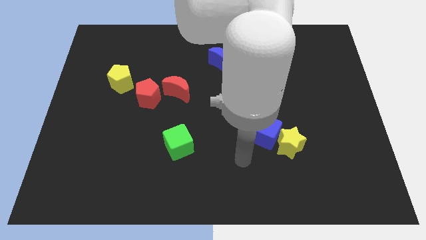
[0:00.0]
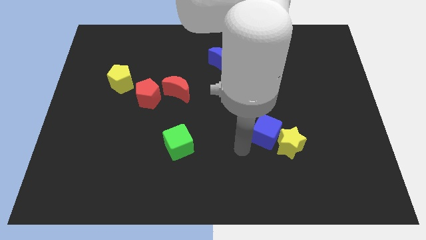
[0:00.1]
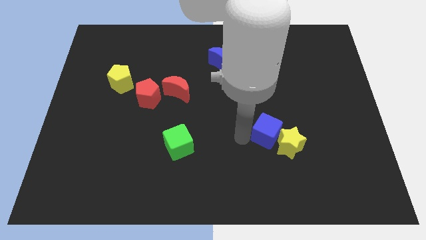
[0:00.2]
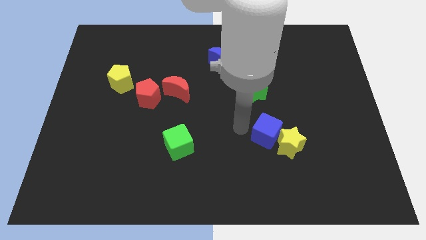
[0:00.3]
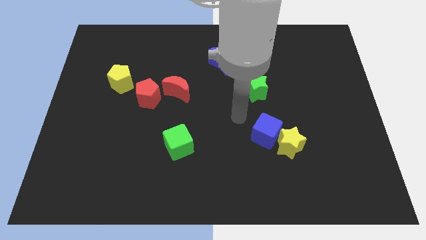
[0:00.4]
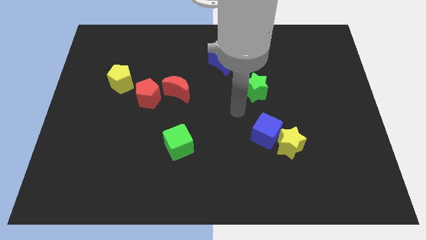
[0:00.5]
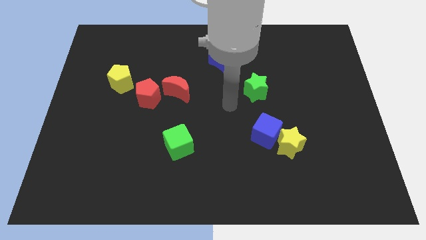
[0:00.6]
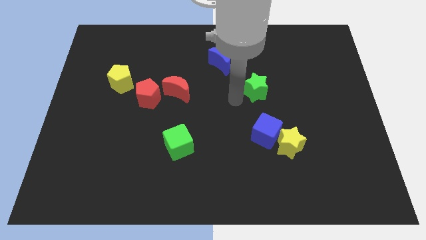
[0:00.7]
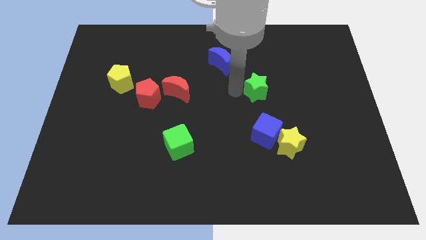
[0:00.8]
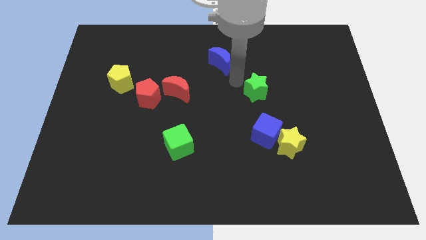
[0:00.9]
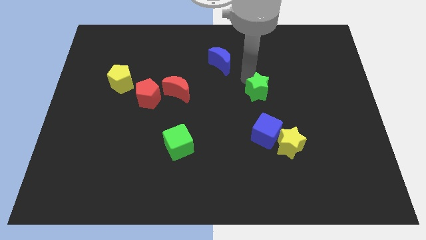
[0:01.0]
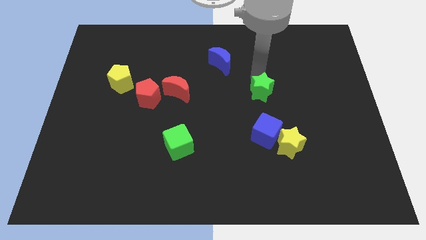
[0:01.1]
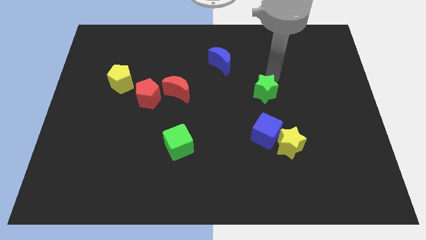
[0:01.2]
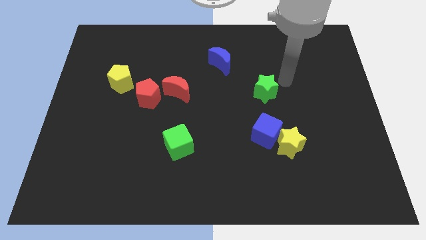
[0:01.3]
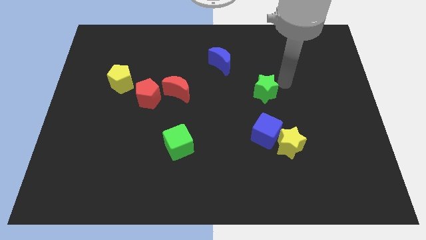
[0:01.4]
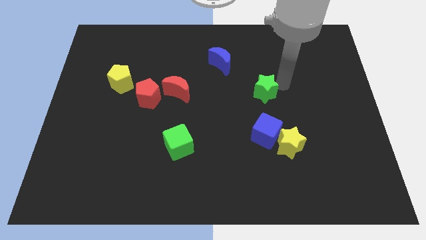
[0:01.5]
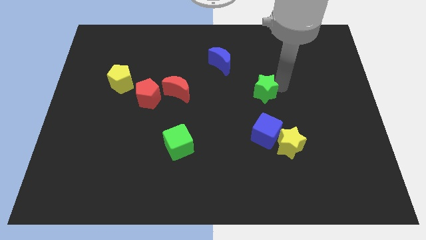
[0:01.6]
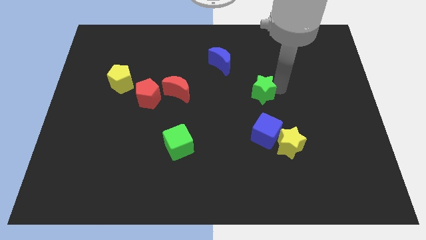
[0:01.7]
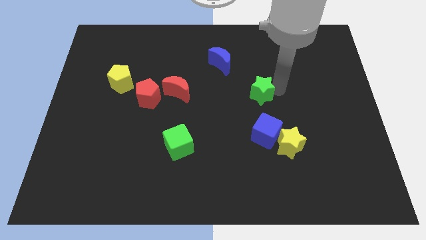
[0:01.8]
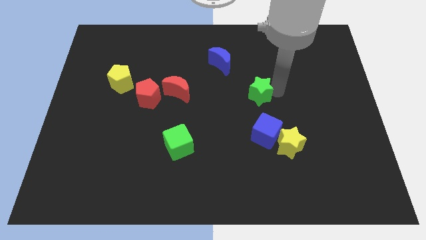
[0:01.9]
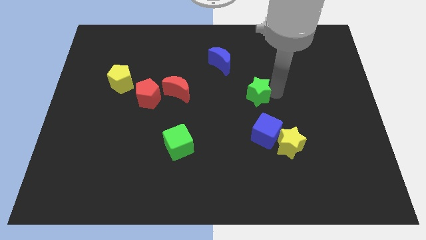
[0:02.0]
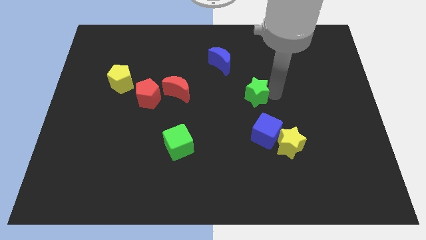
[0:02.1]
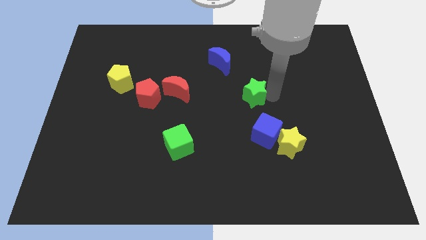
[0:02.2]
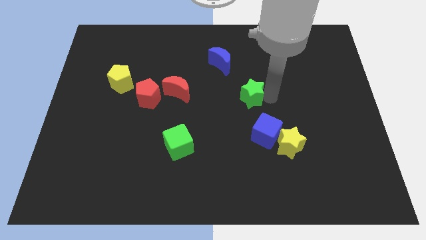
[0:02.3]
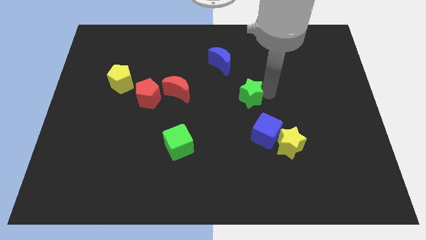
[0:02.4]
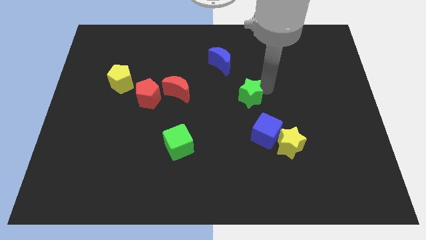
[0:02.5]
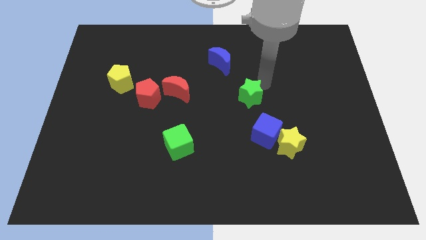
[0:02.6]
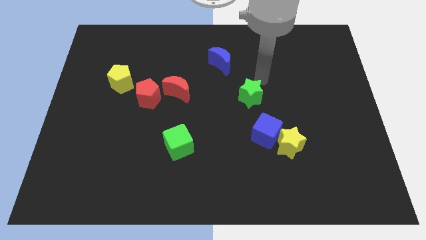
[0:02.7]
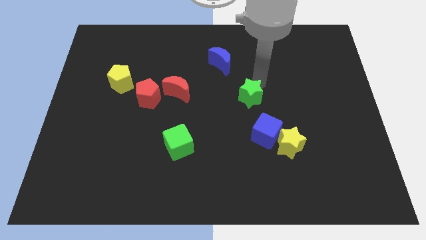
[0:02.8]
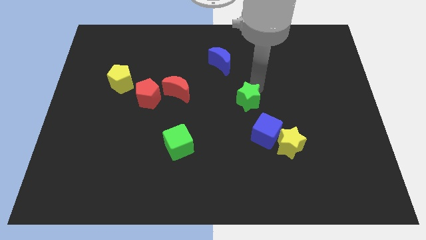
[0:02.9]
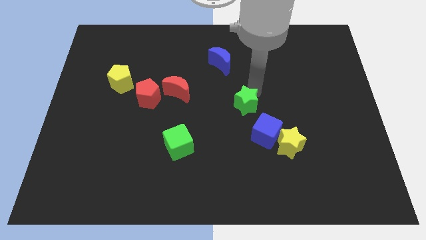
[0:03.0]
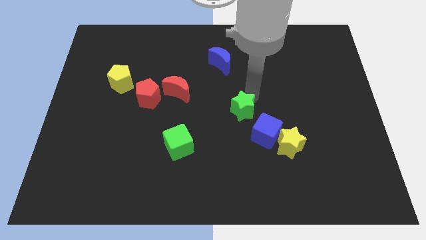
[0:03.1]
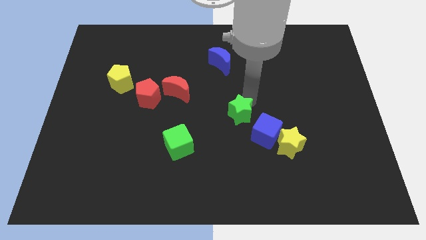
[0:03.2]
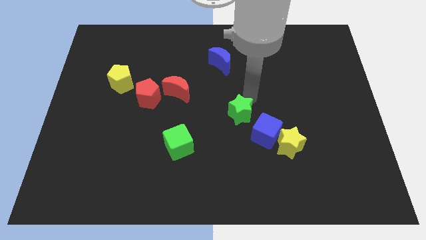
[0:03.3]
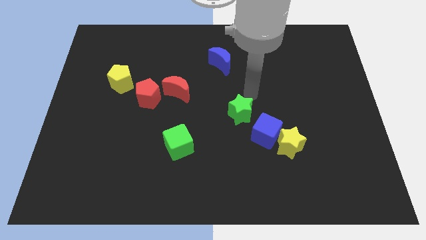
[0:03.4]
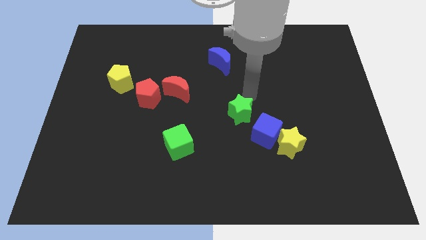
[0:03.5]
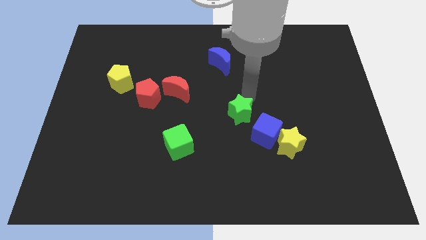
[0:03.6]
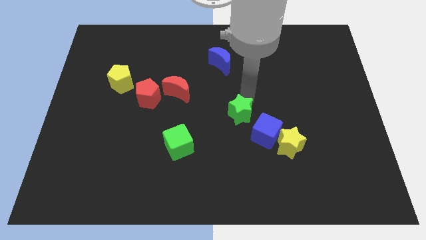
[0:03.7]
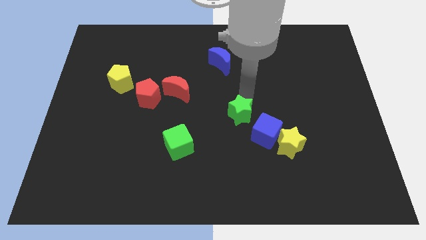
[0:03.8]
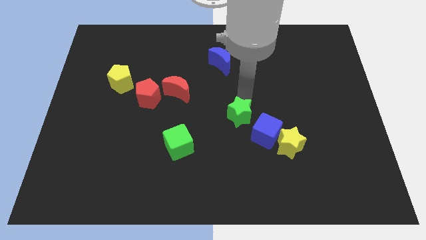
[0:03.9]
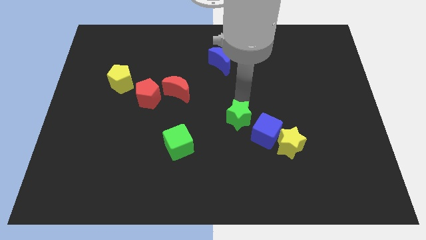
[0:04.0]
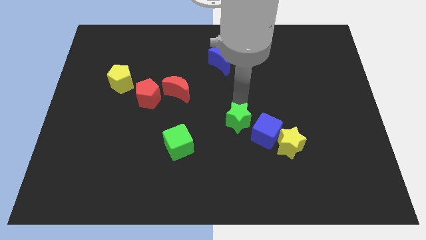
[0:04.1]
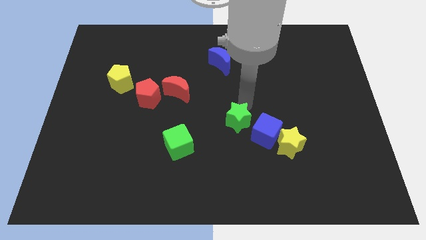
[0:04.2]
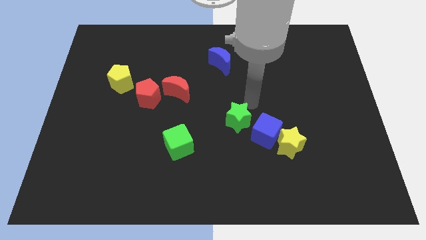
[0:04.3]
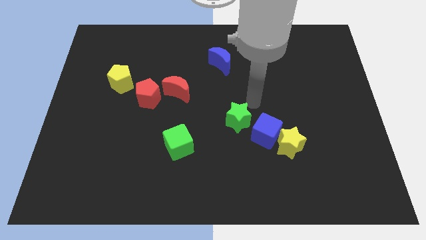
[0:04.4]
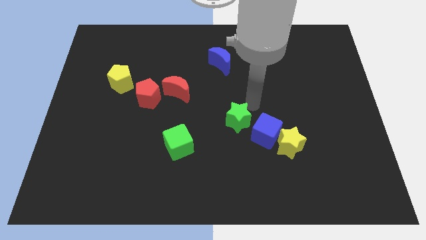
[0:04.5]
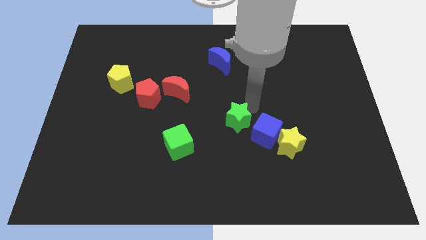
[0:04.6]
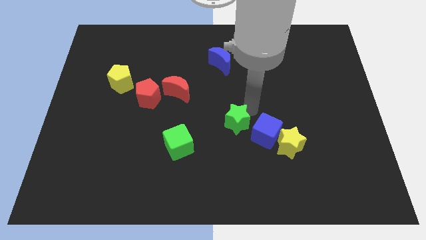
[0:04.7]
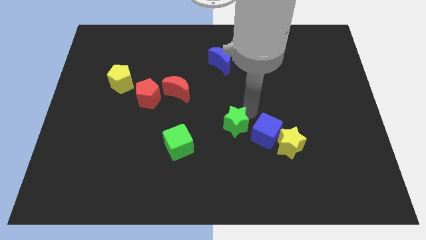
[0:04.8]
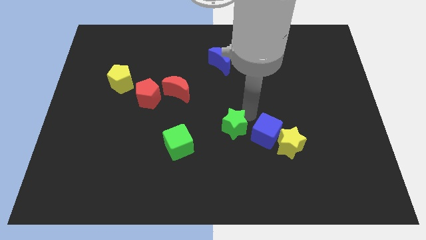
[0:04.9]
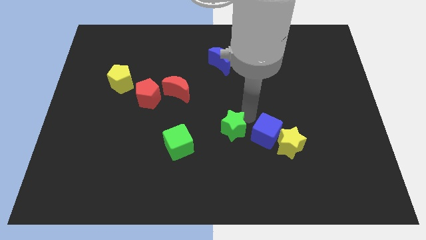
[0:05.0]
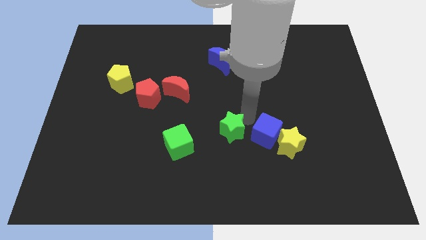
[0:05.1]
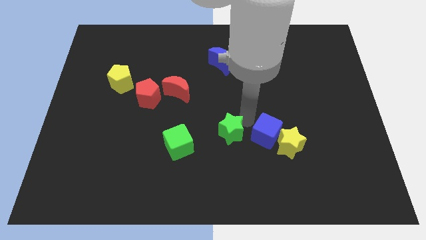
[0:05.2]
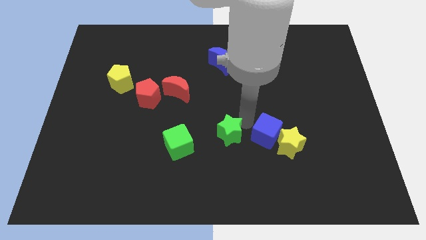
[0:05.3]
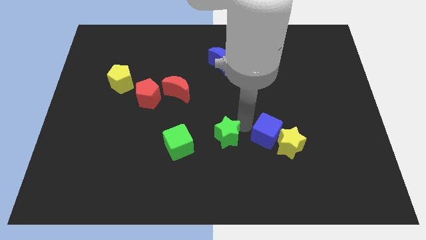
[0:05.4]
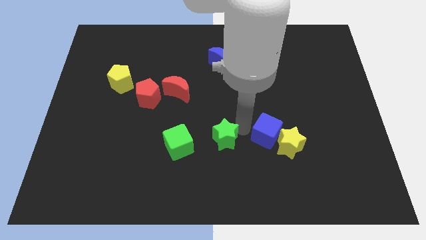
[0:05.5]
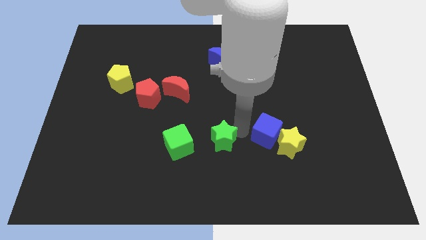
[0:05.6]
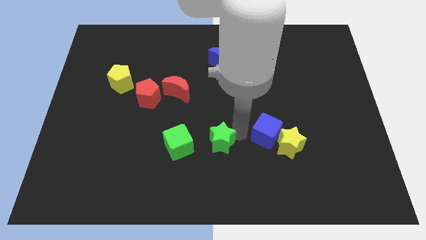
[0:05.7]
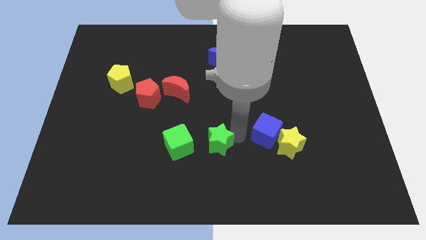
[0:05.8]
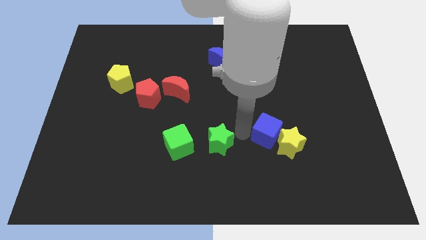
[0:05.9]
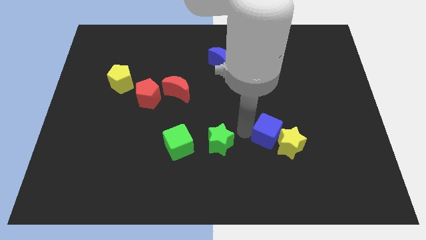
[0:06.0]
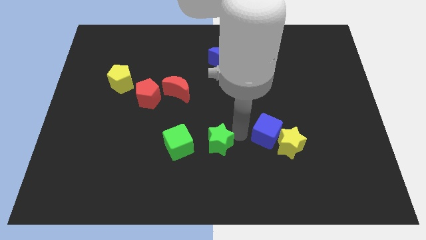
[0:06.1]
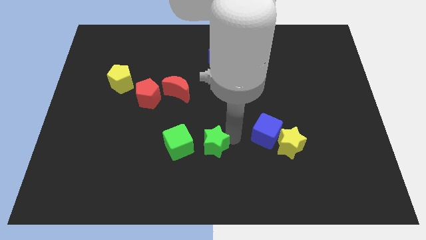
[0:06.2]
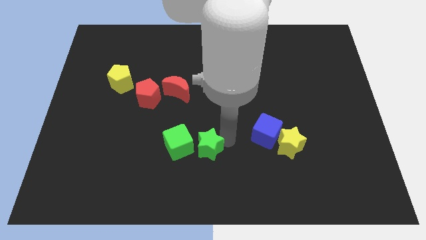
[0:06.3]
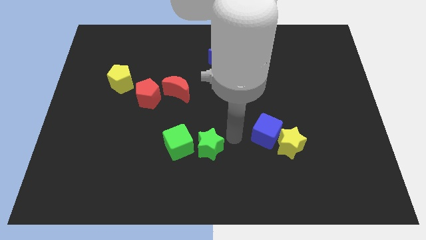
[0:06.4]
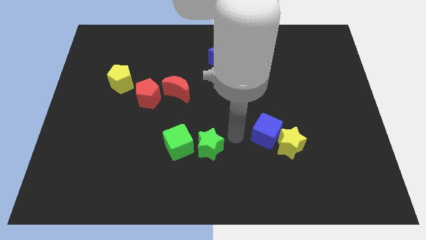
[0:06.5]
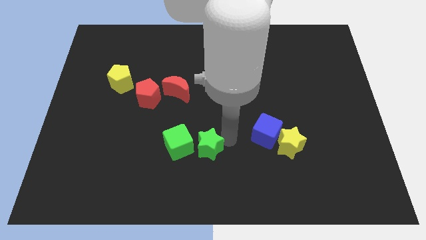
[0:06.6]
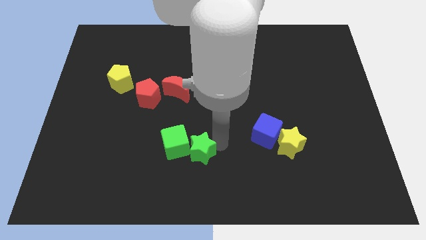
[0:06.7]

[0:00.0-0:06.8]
push the green star down and left

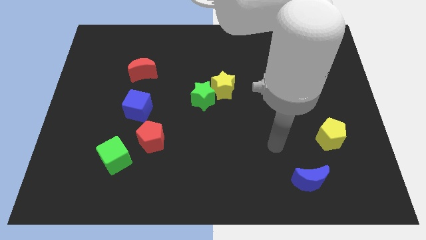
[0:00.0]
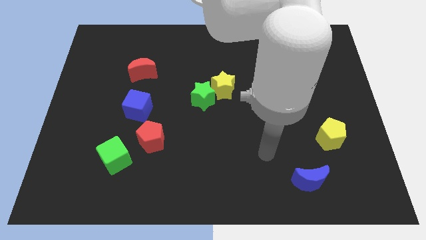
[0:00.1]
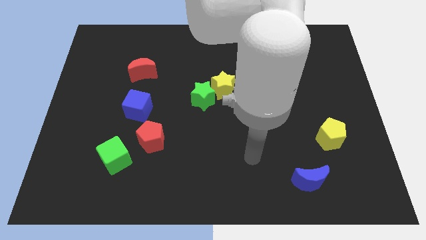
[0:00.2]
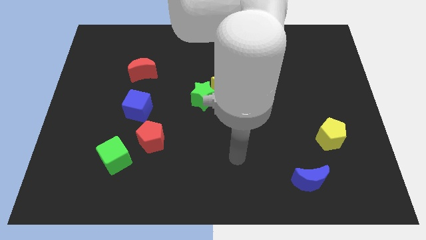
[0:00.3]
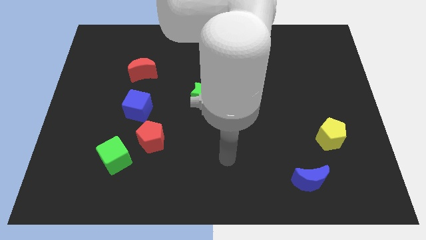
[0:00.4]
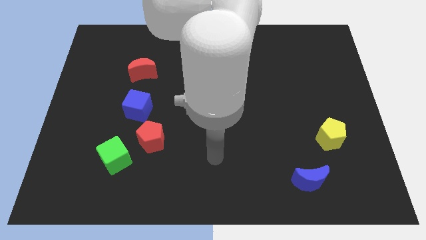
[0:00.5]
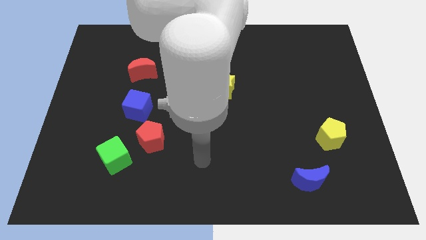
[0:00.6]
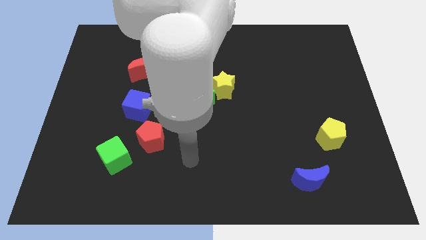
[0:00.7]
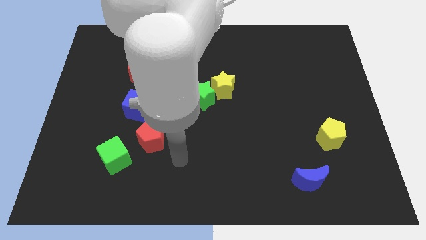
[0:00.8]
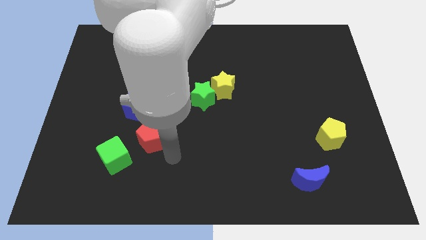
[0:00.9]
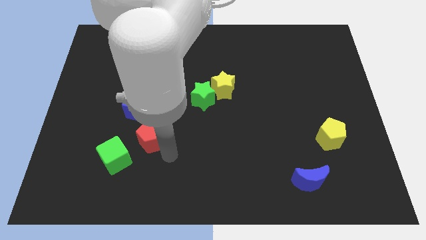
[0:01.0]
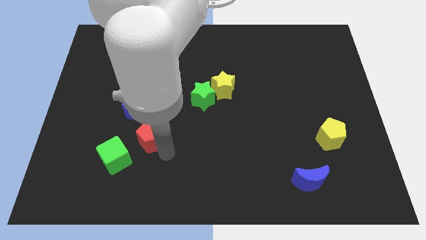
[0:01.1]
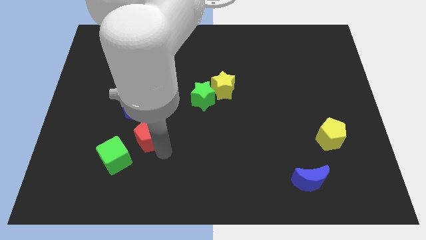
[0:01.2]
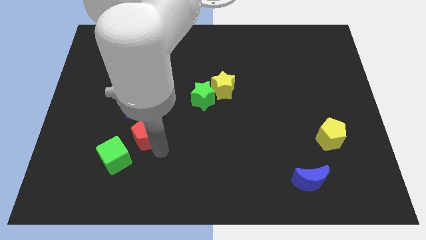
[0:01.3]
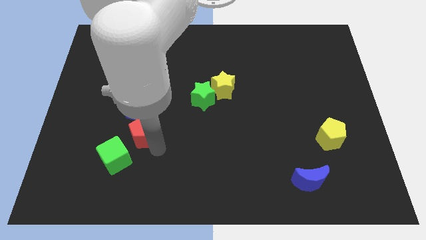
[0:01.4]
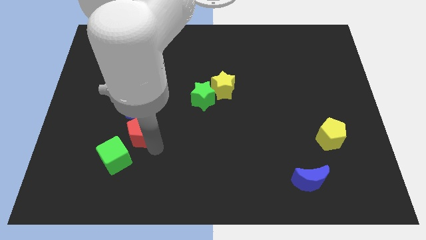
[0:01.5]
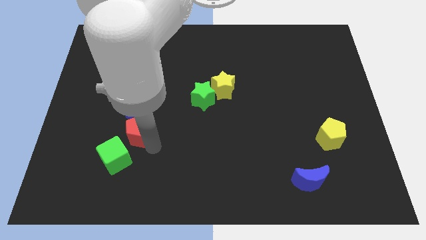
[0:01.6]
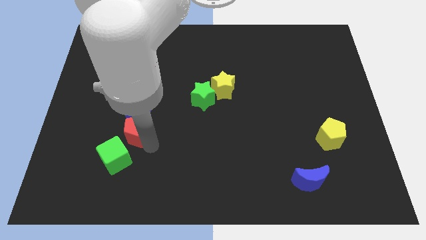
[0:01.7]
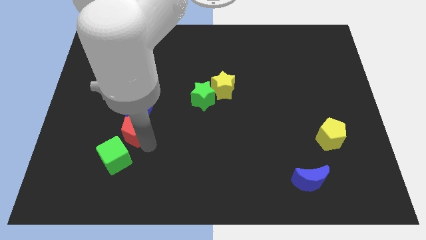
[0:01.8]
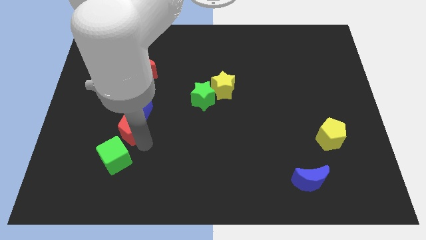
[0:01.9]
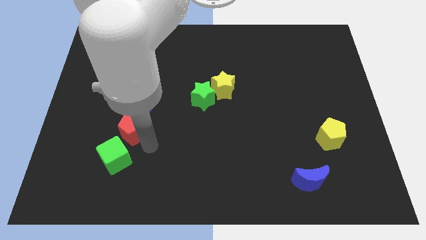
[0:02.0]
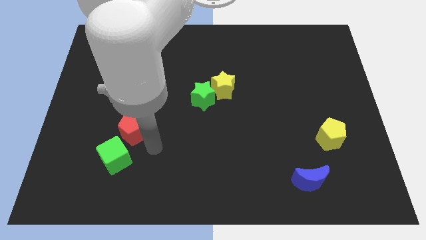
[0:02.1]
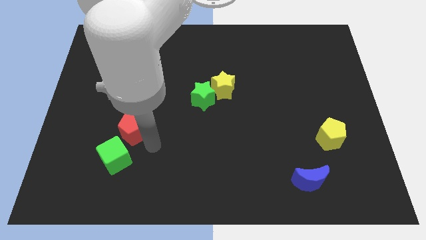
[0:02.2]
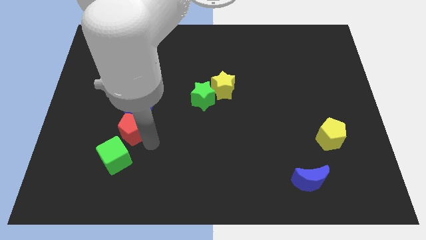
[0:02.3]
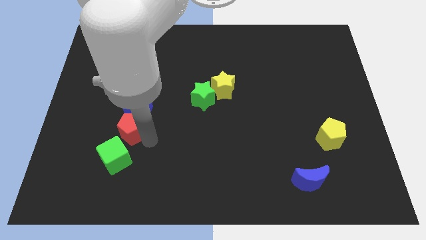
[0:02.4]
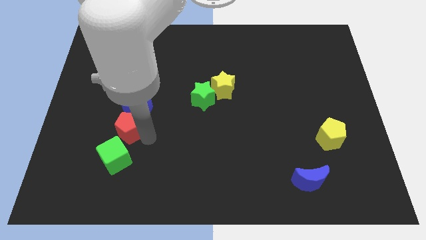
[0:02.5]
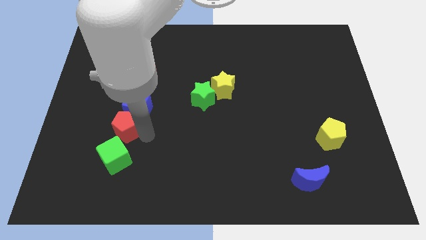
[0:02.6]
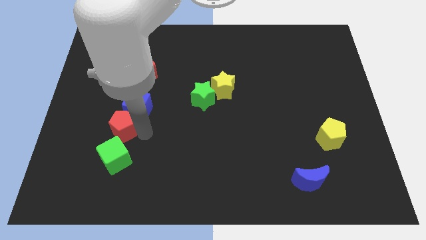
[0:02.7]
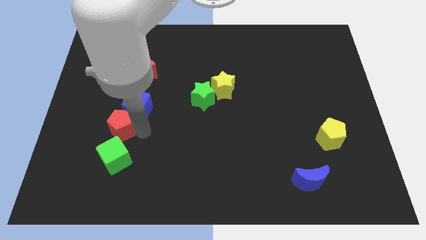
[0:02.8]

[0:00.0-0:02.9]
move the red pentagon somewhat diagonally upwards and to the left
